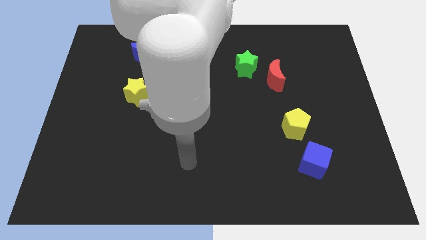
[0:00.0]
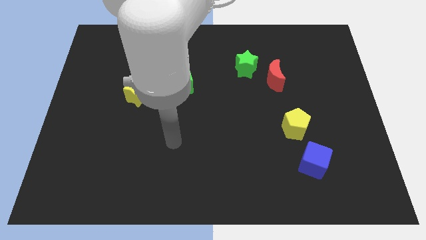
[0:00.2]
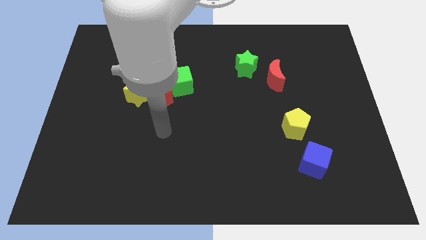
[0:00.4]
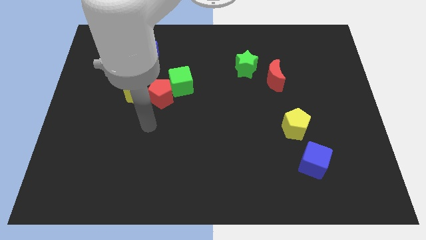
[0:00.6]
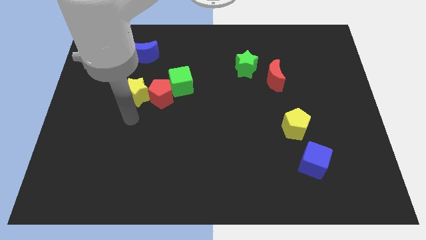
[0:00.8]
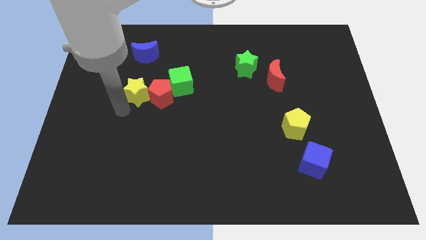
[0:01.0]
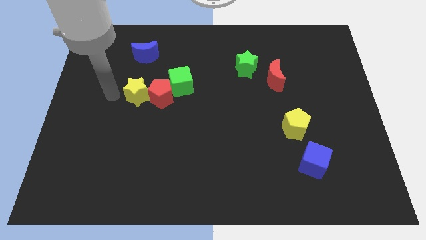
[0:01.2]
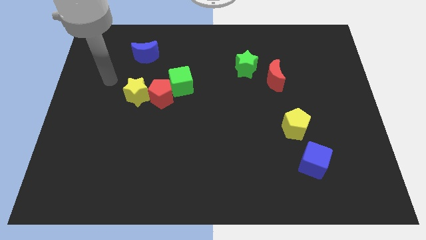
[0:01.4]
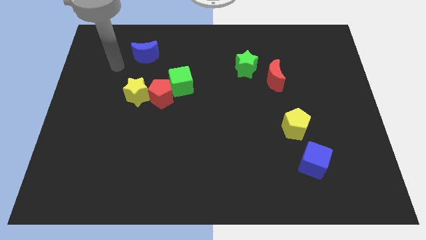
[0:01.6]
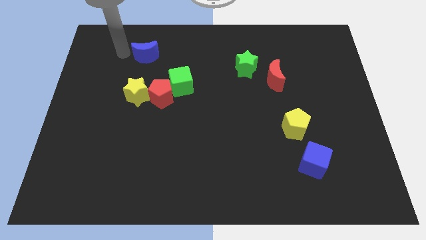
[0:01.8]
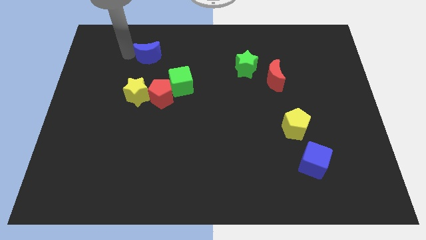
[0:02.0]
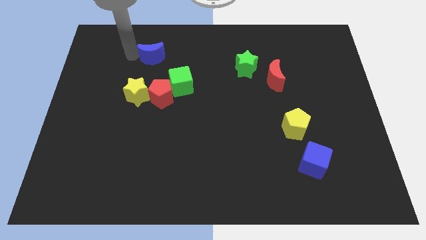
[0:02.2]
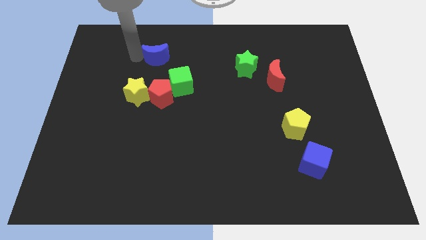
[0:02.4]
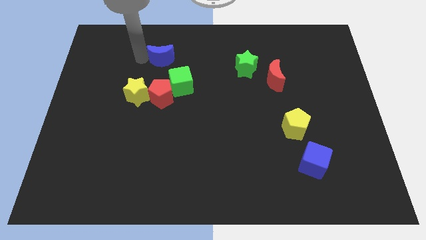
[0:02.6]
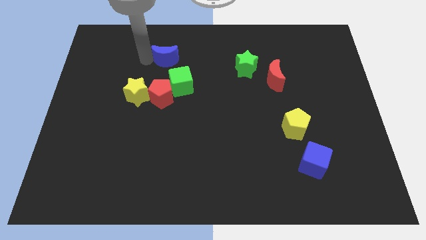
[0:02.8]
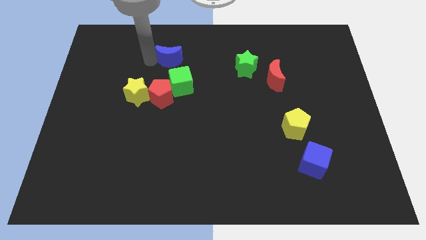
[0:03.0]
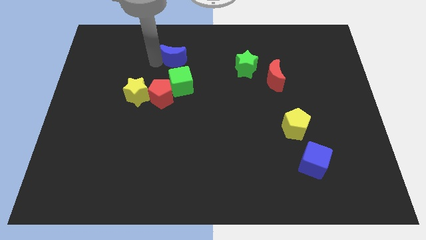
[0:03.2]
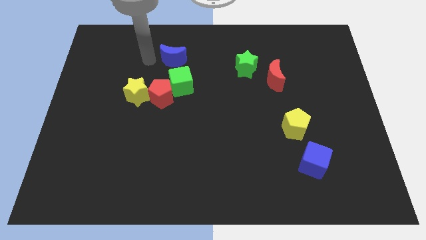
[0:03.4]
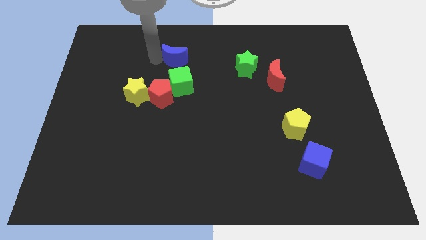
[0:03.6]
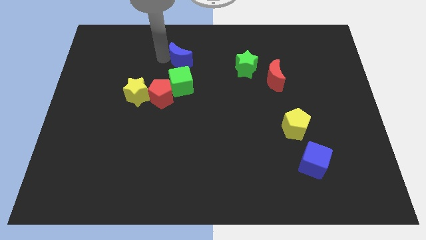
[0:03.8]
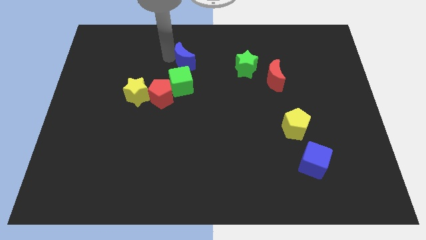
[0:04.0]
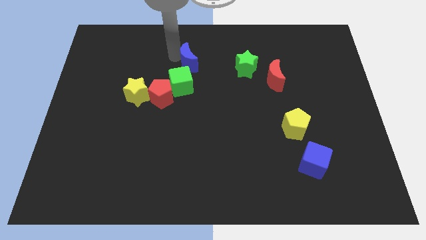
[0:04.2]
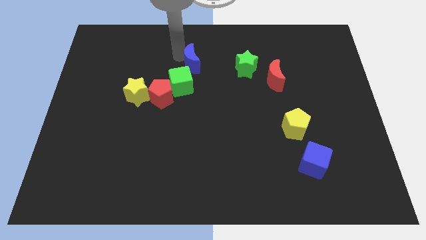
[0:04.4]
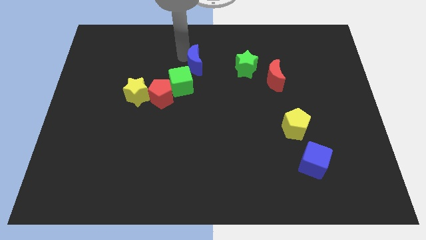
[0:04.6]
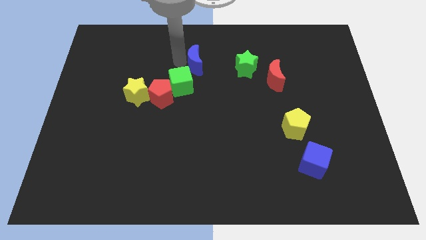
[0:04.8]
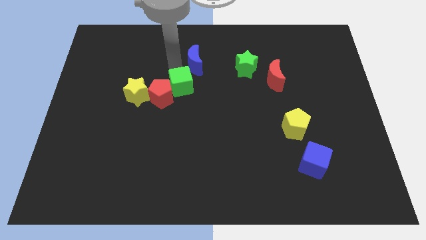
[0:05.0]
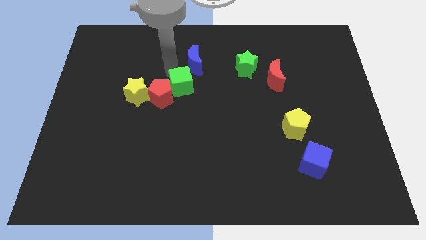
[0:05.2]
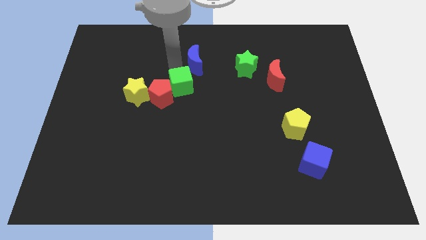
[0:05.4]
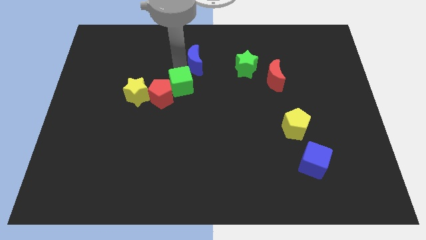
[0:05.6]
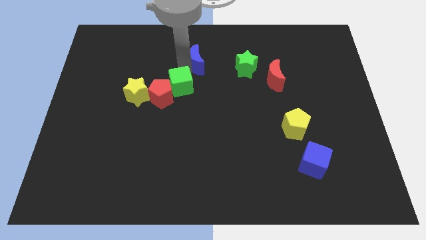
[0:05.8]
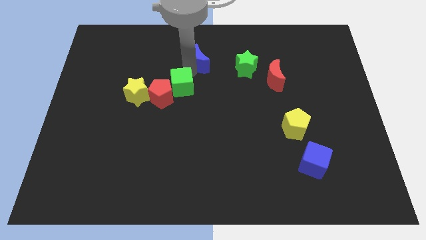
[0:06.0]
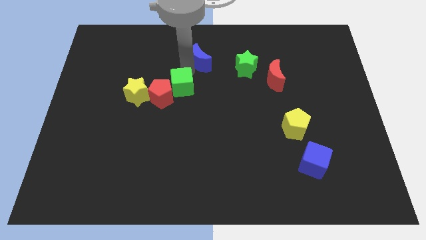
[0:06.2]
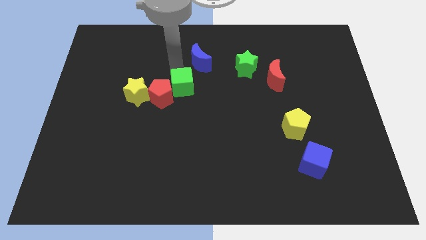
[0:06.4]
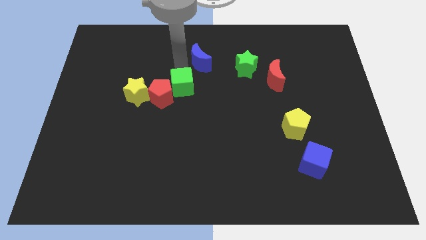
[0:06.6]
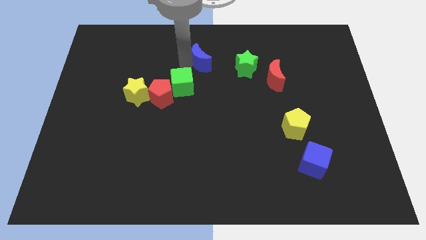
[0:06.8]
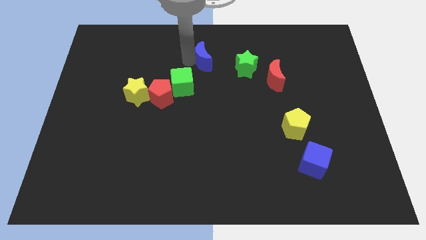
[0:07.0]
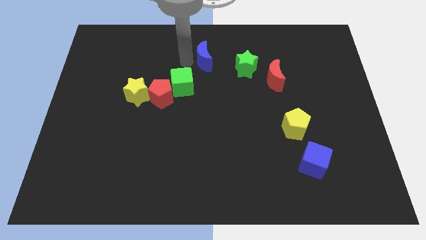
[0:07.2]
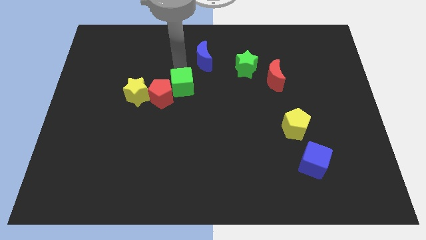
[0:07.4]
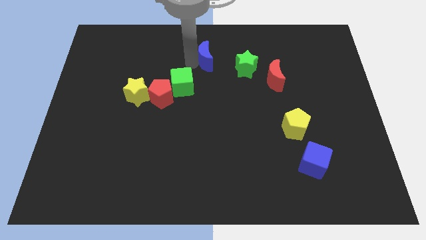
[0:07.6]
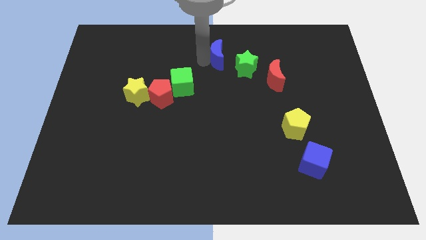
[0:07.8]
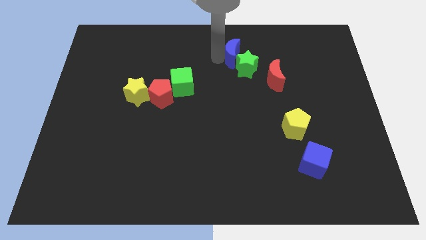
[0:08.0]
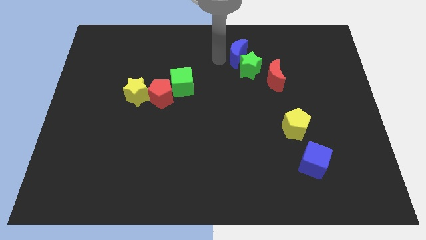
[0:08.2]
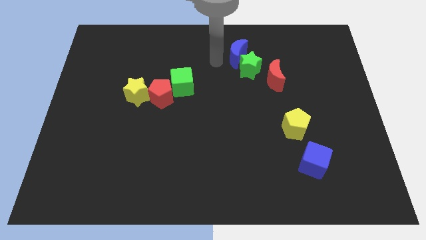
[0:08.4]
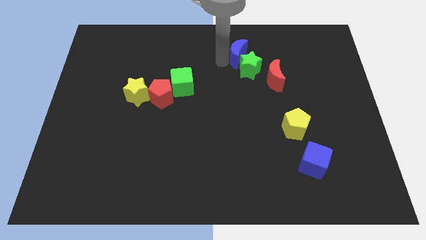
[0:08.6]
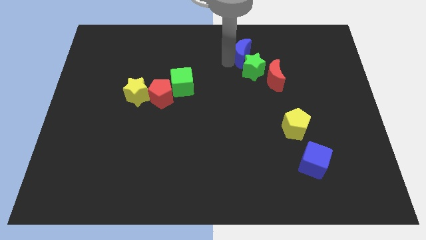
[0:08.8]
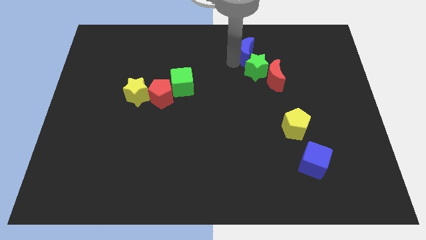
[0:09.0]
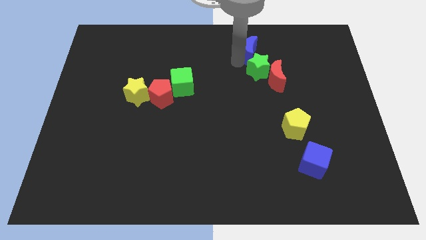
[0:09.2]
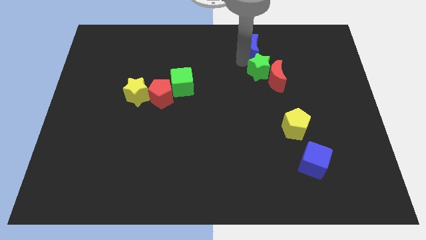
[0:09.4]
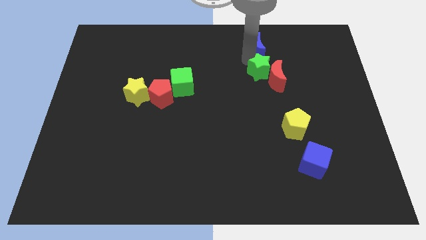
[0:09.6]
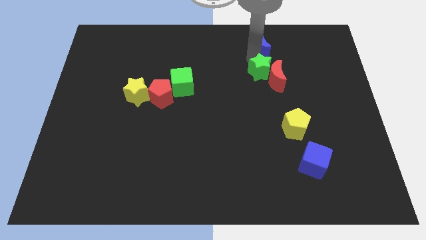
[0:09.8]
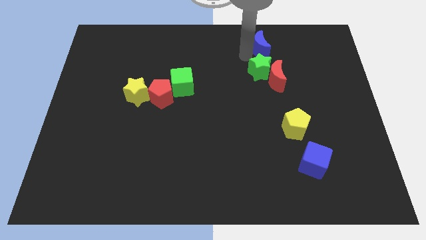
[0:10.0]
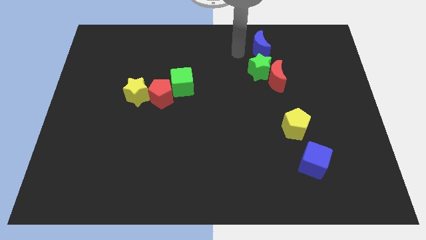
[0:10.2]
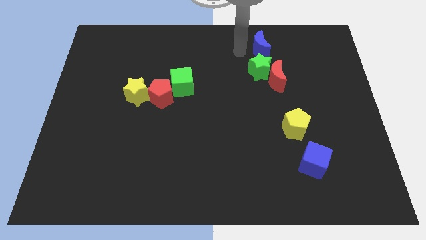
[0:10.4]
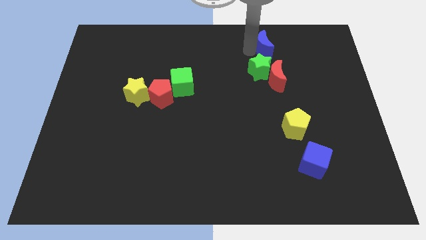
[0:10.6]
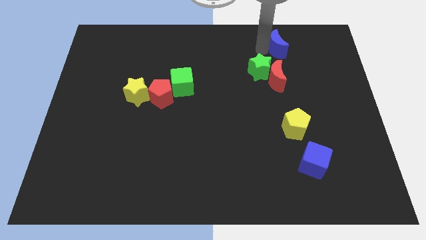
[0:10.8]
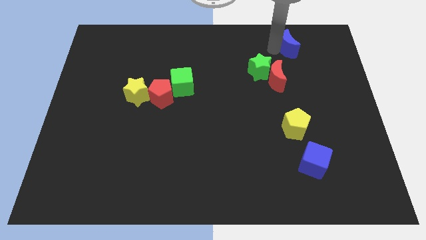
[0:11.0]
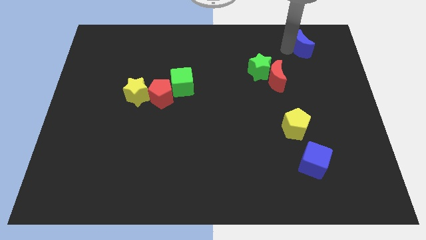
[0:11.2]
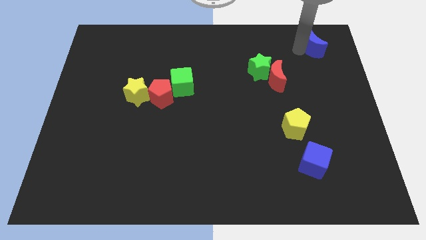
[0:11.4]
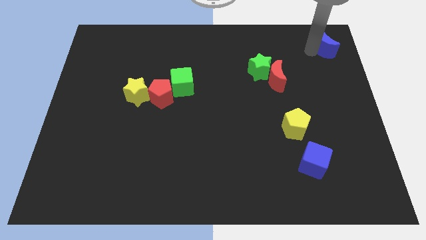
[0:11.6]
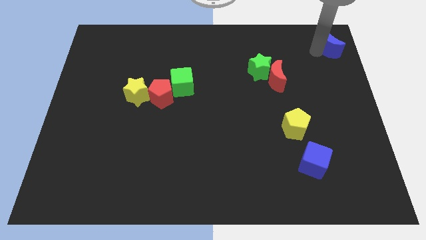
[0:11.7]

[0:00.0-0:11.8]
put the blue moon to the top right corner
